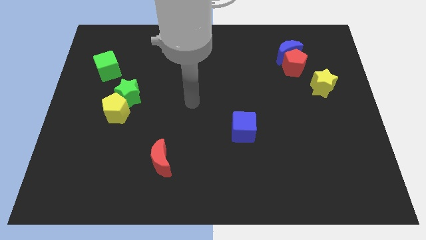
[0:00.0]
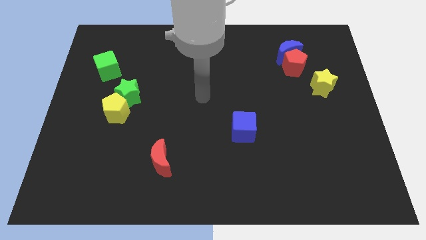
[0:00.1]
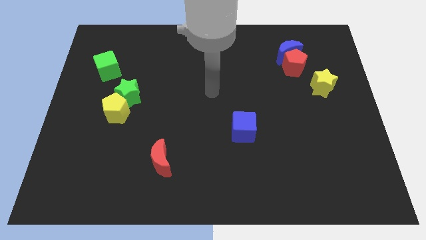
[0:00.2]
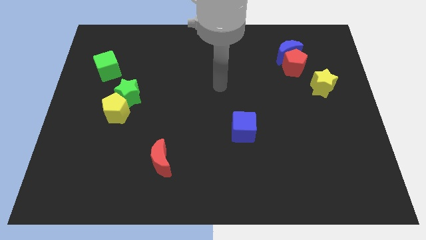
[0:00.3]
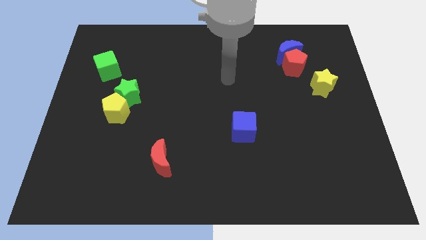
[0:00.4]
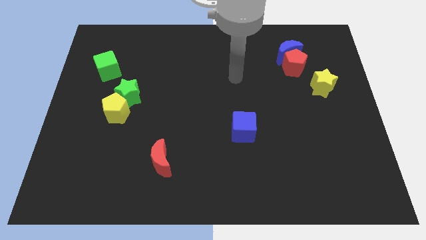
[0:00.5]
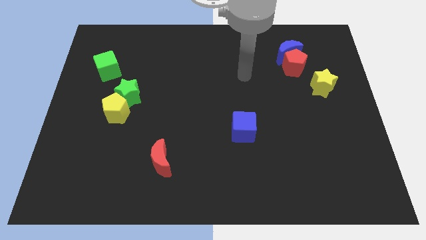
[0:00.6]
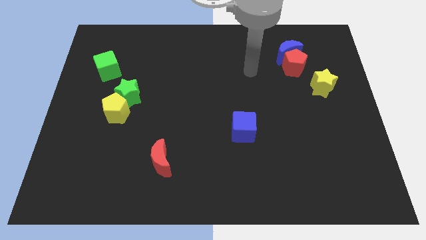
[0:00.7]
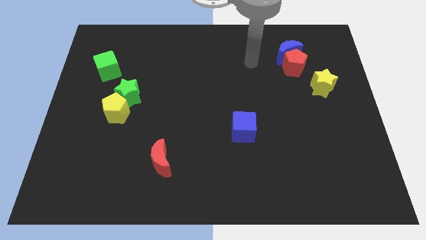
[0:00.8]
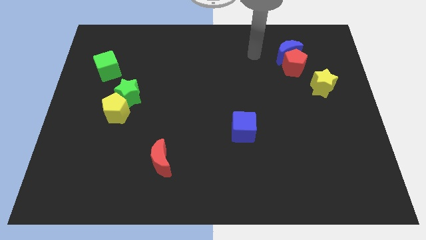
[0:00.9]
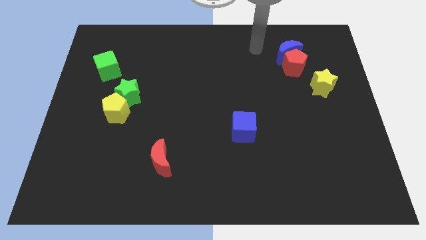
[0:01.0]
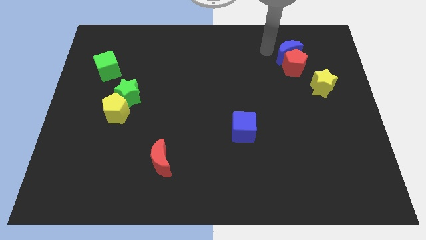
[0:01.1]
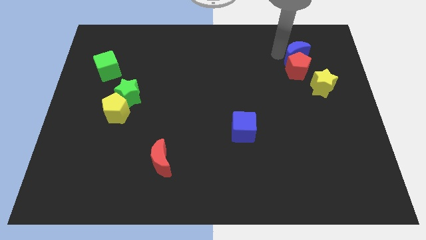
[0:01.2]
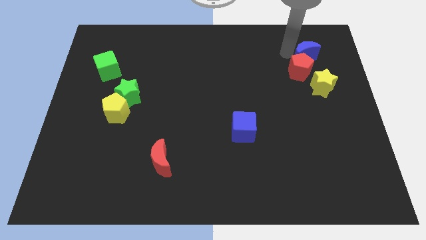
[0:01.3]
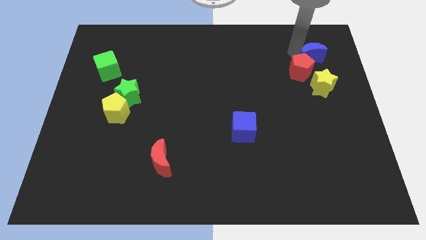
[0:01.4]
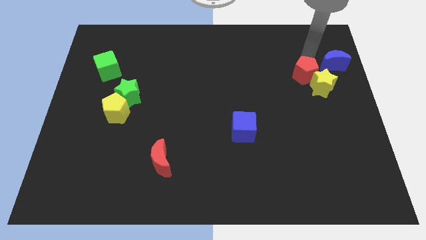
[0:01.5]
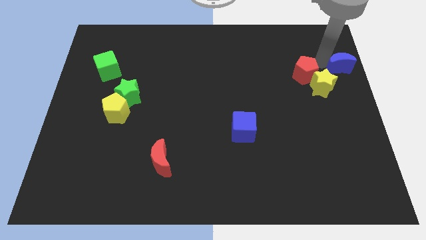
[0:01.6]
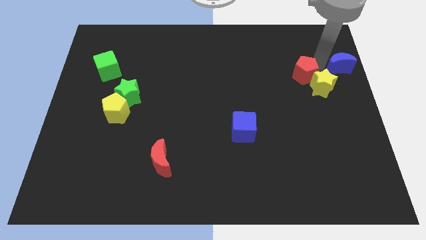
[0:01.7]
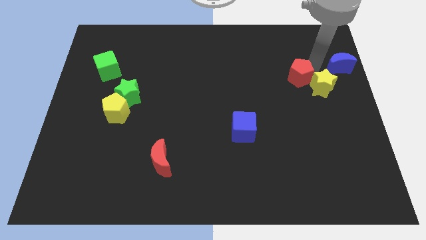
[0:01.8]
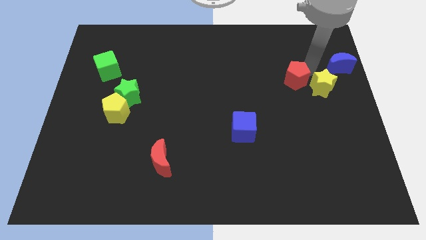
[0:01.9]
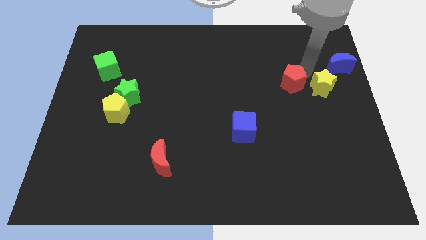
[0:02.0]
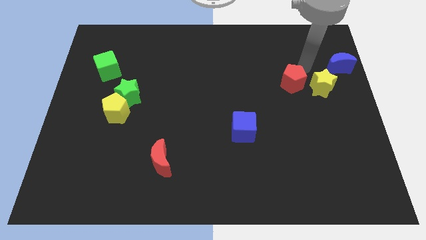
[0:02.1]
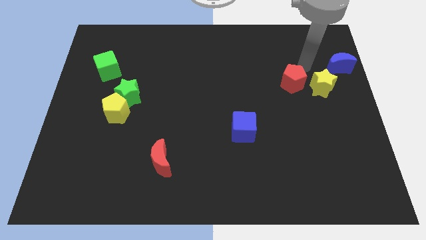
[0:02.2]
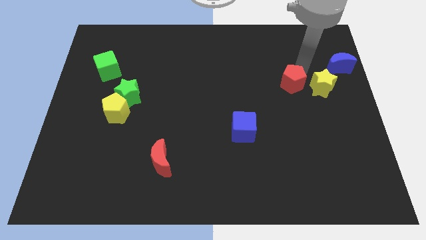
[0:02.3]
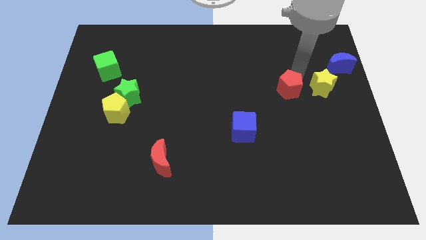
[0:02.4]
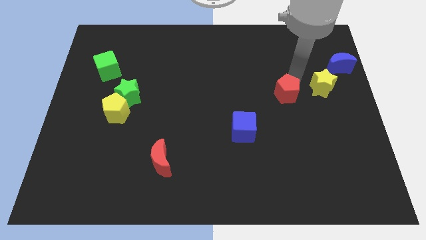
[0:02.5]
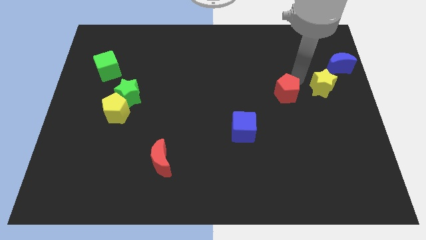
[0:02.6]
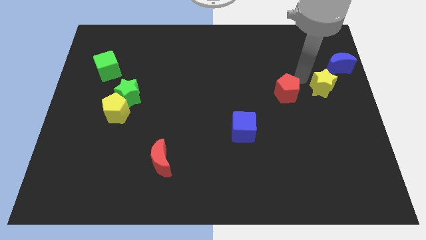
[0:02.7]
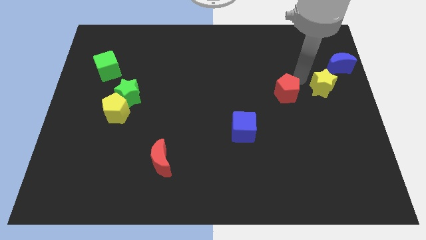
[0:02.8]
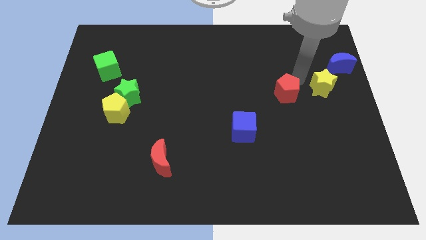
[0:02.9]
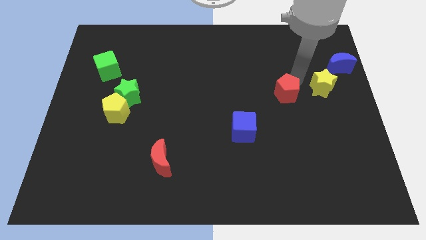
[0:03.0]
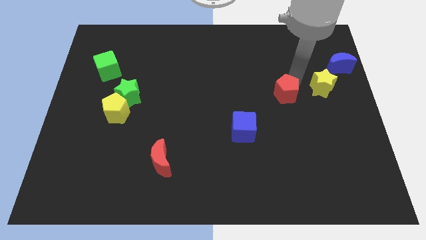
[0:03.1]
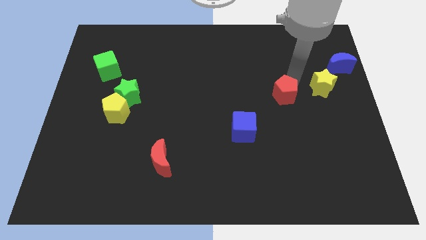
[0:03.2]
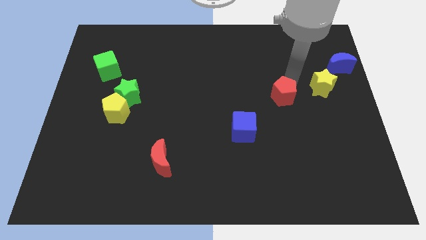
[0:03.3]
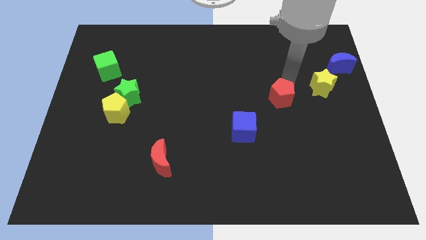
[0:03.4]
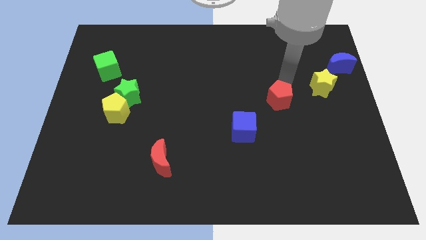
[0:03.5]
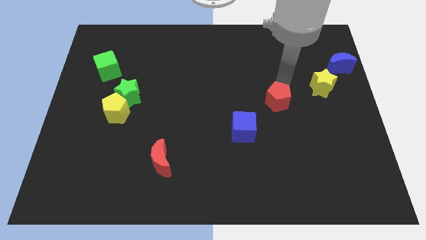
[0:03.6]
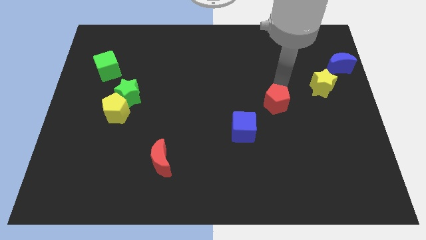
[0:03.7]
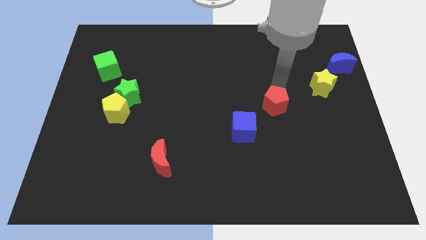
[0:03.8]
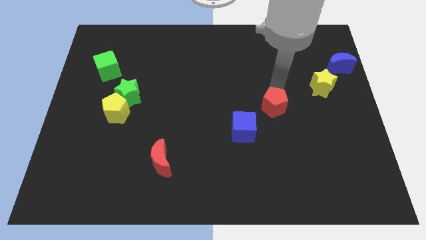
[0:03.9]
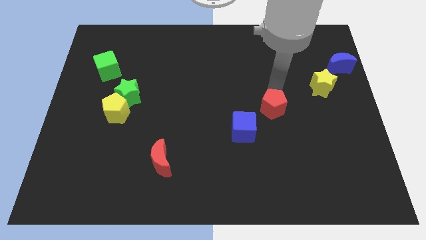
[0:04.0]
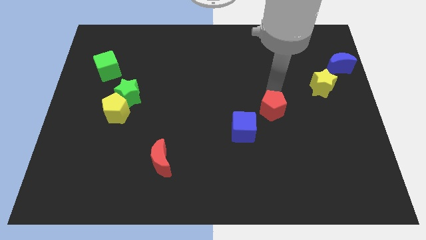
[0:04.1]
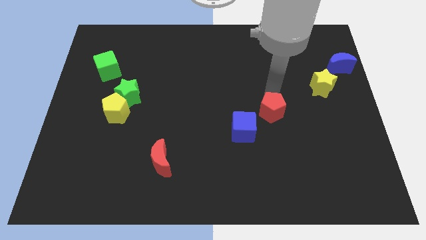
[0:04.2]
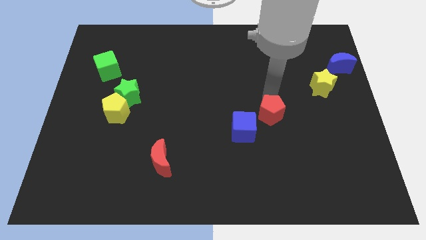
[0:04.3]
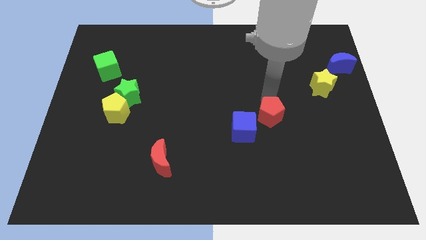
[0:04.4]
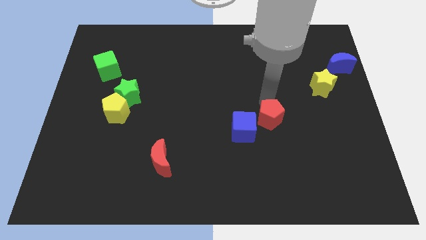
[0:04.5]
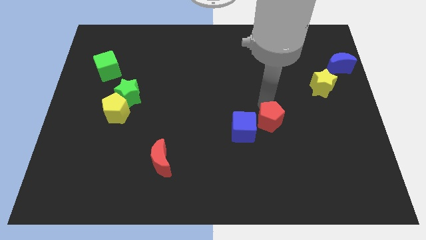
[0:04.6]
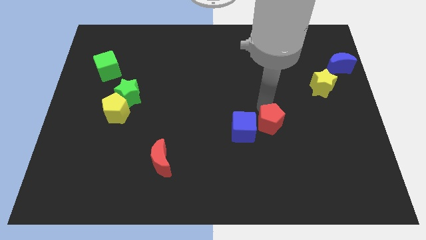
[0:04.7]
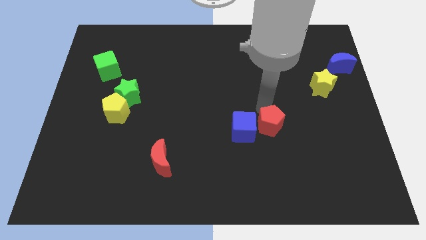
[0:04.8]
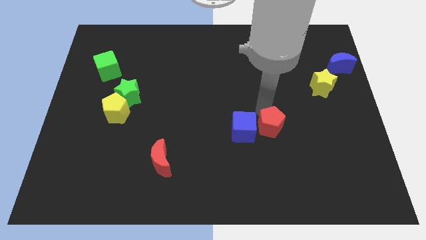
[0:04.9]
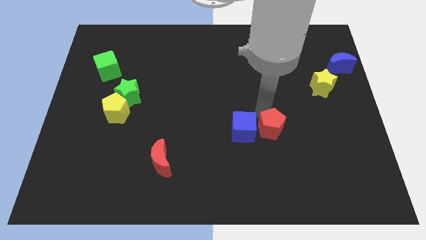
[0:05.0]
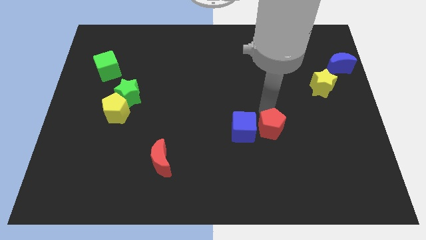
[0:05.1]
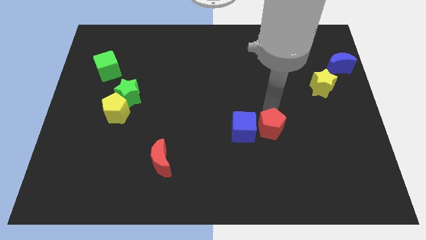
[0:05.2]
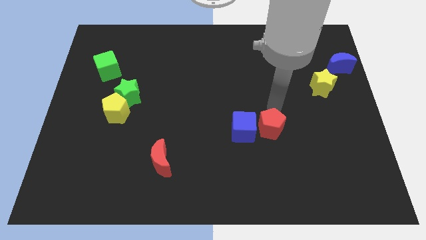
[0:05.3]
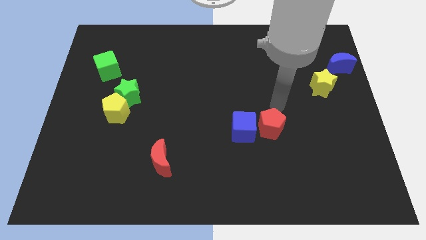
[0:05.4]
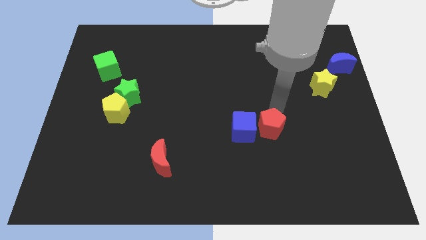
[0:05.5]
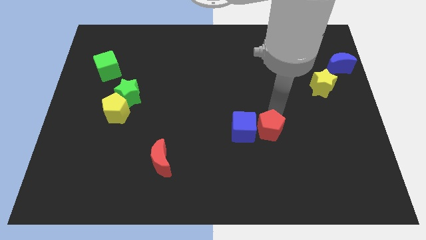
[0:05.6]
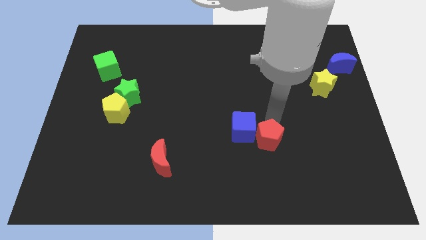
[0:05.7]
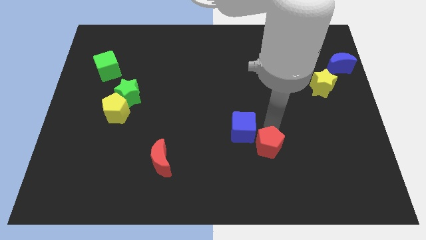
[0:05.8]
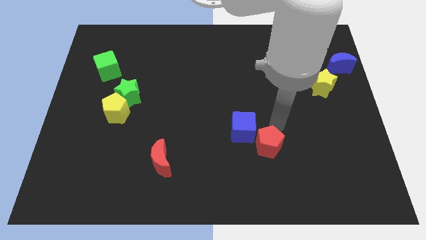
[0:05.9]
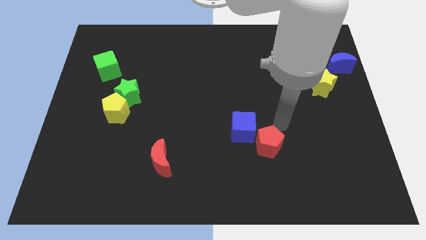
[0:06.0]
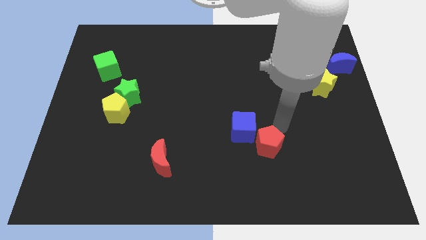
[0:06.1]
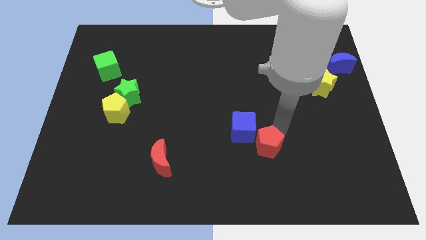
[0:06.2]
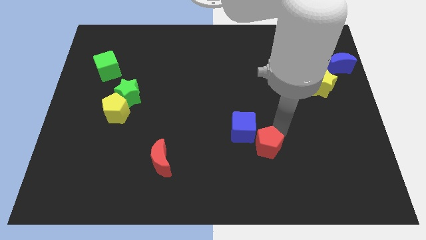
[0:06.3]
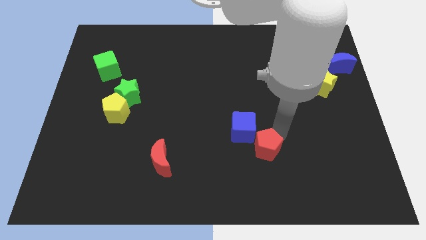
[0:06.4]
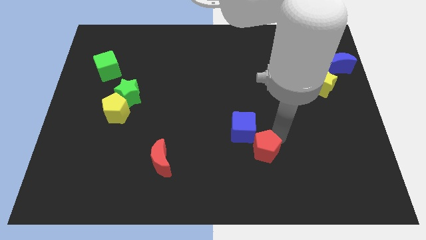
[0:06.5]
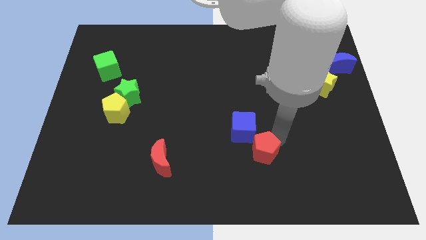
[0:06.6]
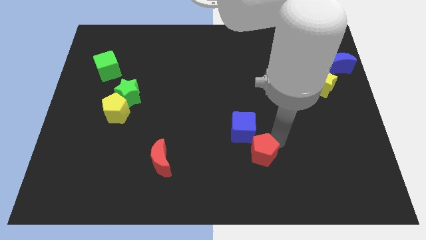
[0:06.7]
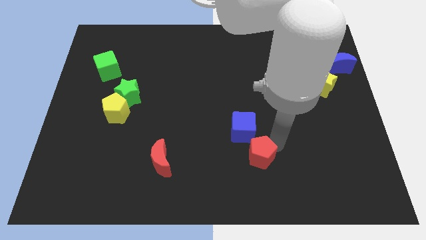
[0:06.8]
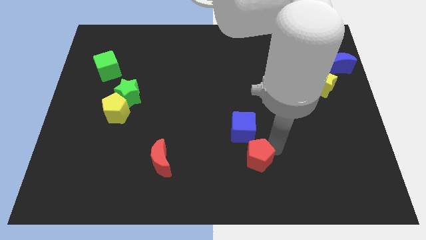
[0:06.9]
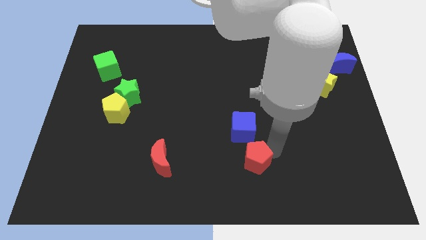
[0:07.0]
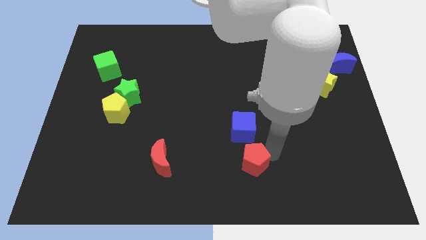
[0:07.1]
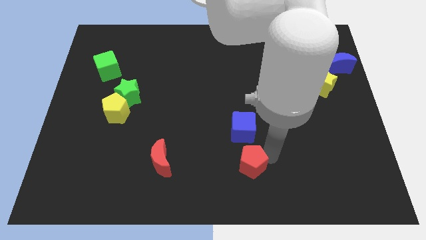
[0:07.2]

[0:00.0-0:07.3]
push the red pentagon to the bottom side
